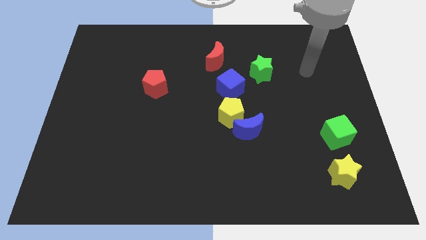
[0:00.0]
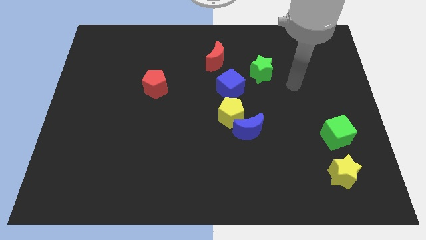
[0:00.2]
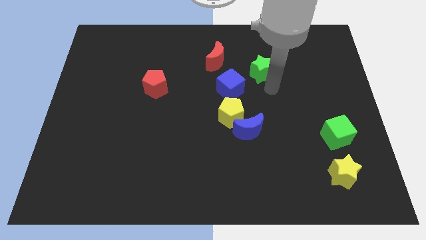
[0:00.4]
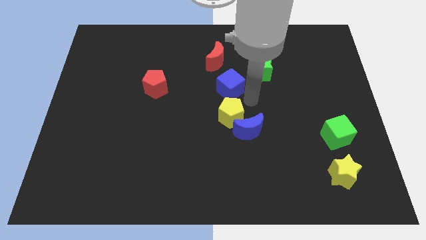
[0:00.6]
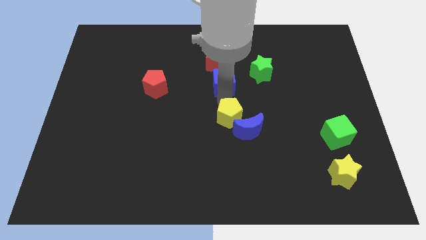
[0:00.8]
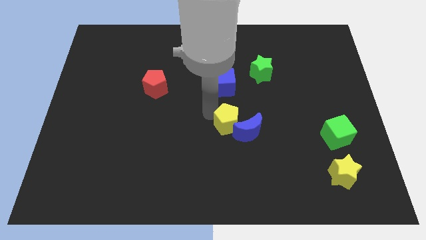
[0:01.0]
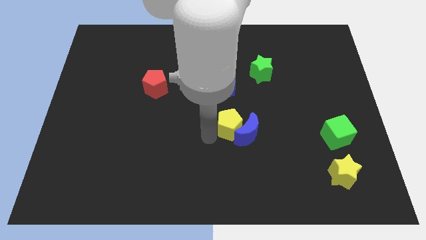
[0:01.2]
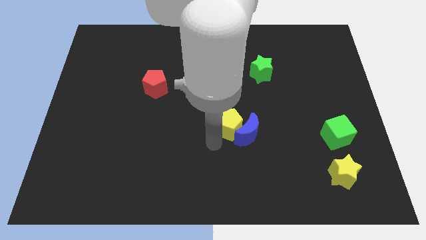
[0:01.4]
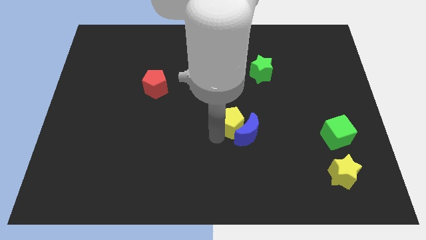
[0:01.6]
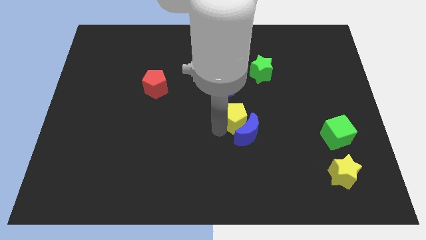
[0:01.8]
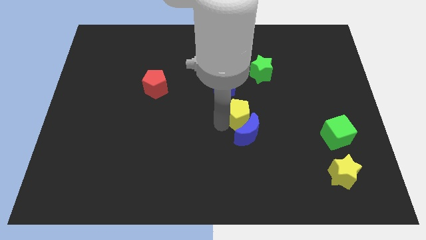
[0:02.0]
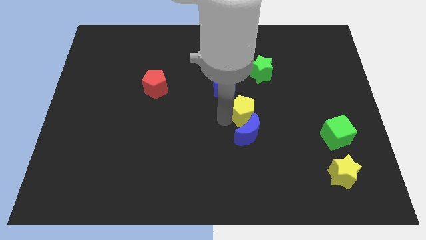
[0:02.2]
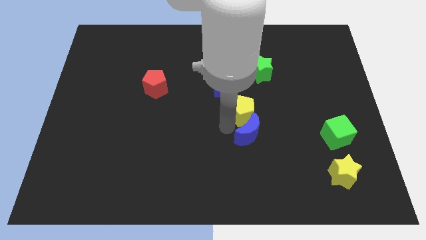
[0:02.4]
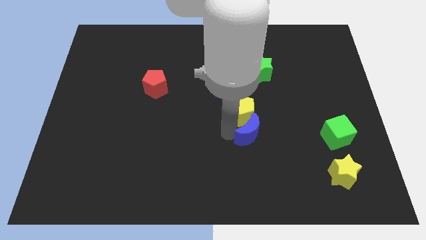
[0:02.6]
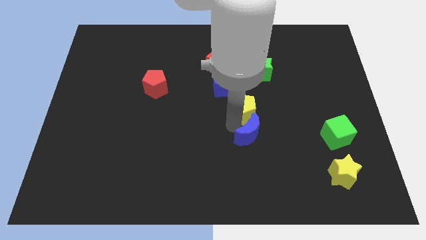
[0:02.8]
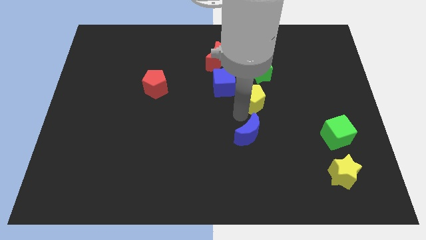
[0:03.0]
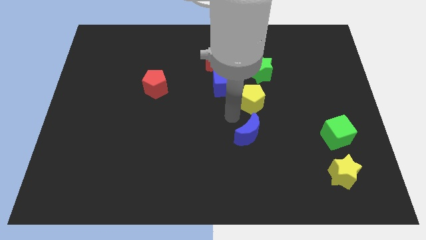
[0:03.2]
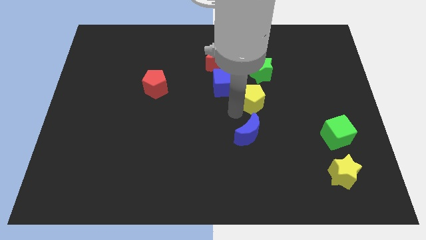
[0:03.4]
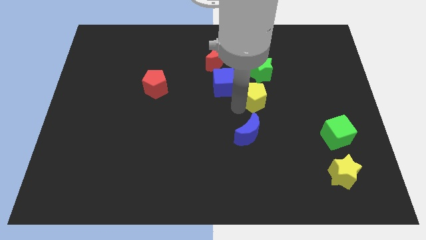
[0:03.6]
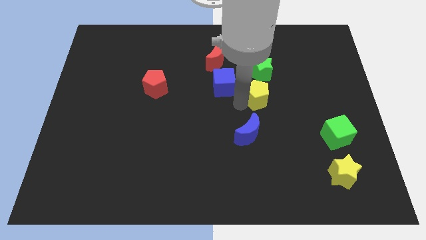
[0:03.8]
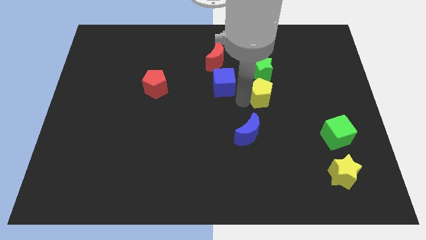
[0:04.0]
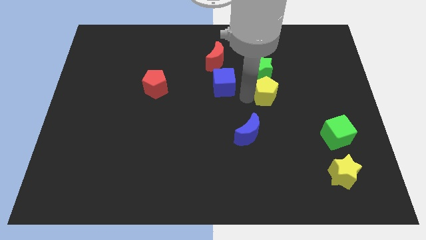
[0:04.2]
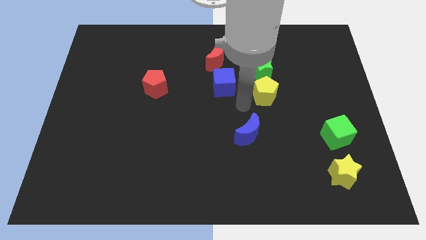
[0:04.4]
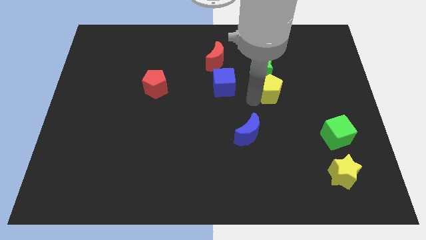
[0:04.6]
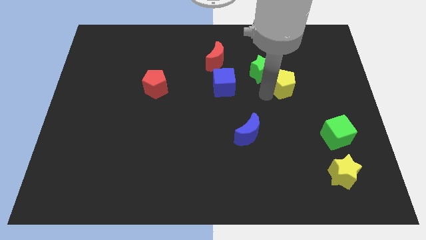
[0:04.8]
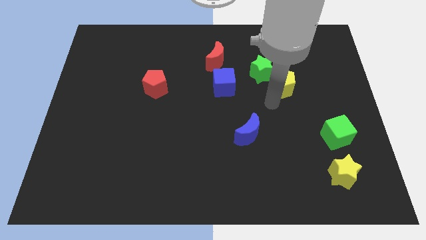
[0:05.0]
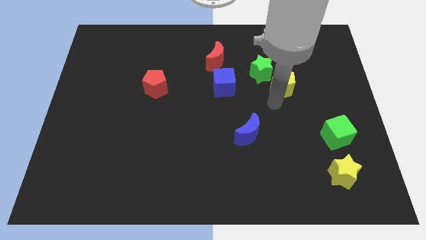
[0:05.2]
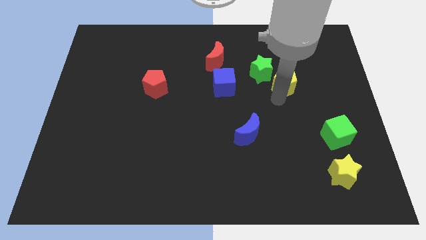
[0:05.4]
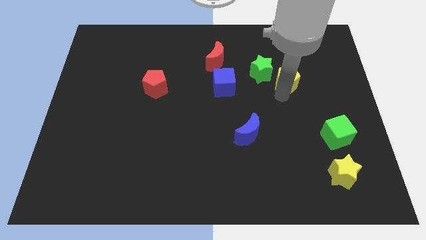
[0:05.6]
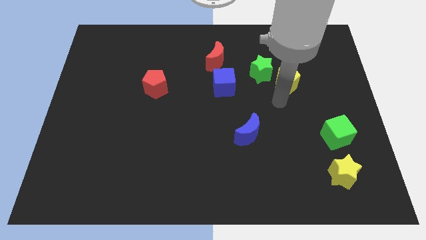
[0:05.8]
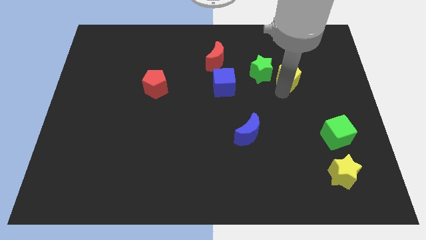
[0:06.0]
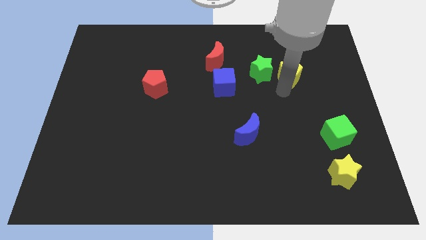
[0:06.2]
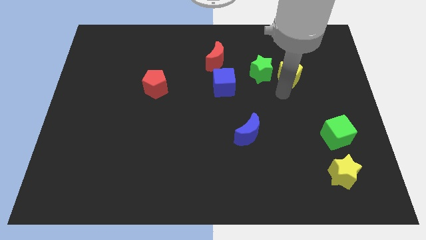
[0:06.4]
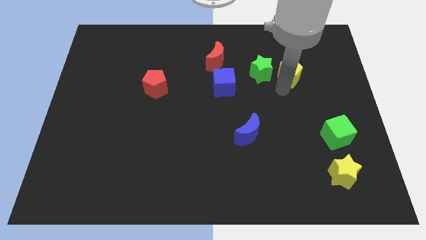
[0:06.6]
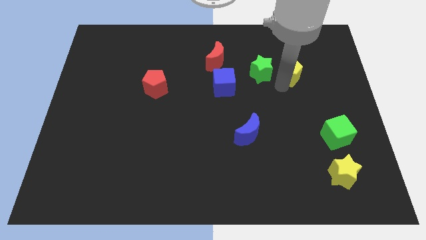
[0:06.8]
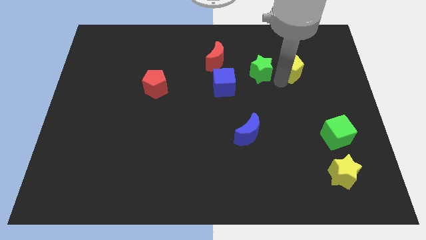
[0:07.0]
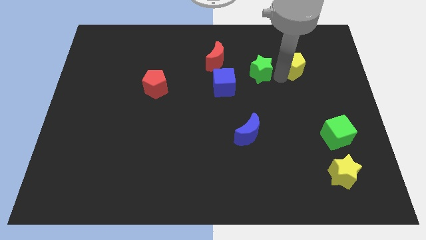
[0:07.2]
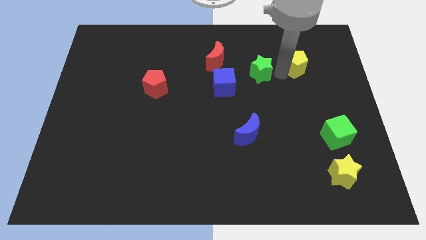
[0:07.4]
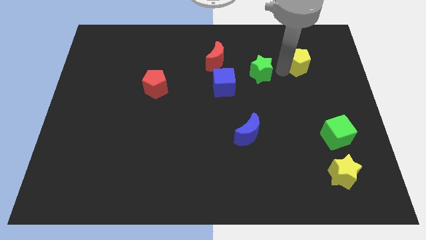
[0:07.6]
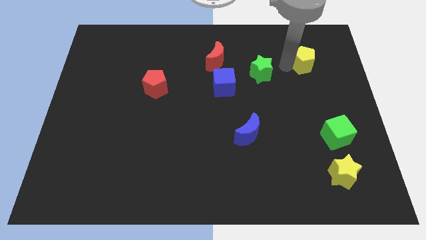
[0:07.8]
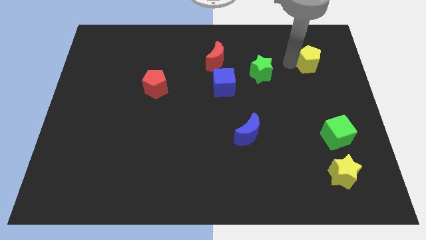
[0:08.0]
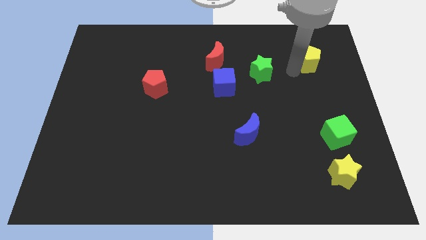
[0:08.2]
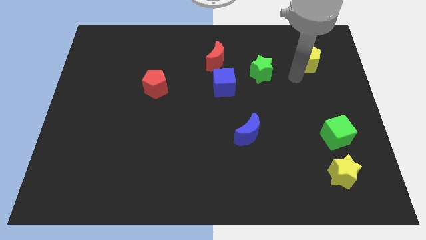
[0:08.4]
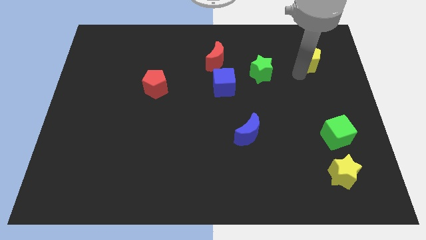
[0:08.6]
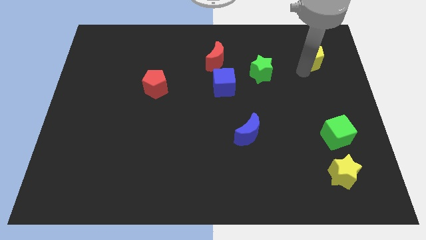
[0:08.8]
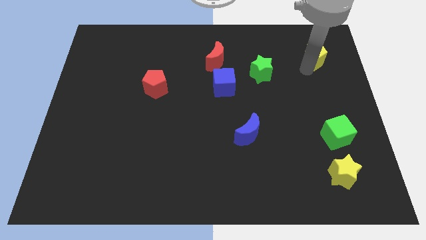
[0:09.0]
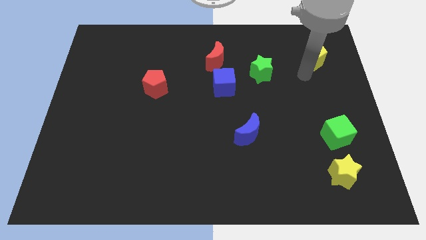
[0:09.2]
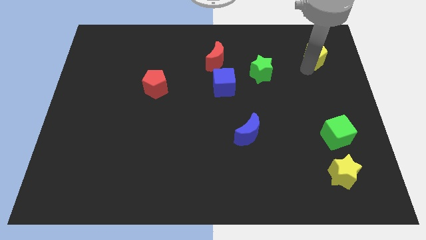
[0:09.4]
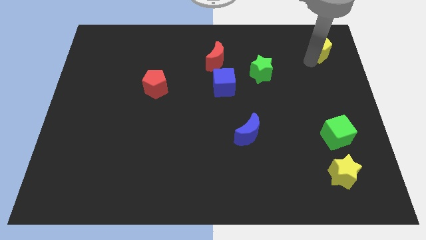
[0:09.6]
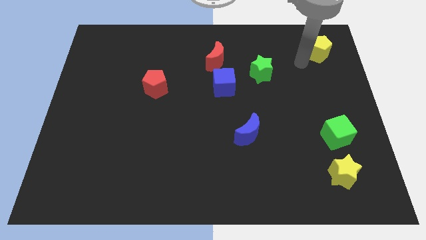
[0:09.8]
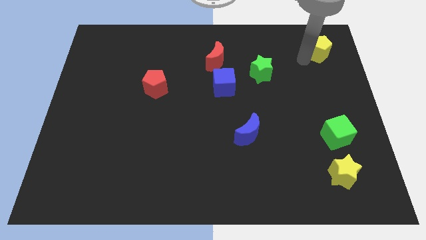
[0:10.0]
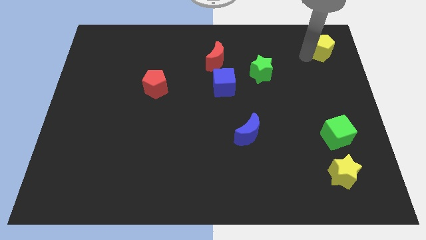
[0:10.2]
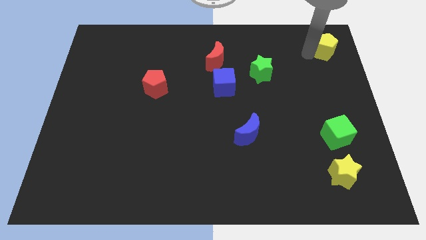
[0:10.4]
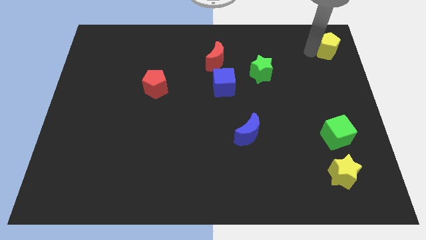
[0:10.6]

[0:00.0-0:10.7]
slide the yellow pentagon to the upper right corner

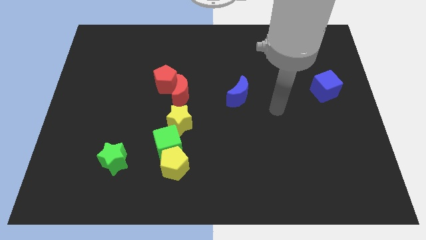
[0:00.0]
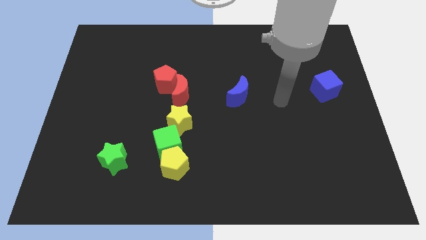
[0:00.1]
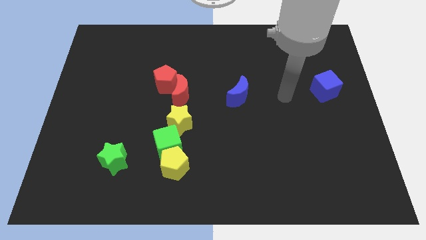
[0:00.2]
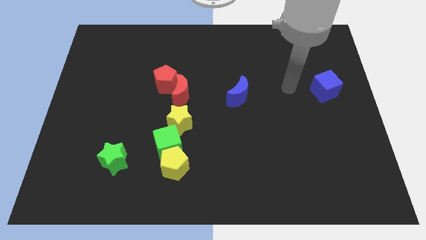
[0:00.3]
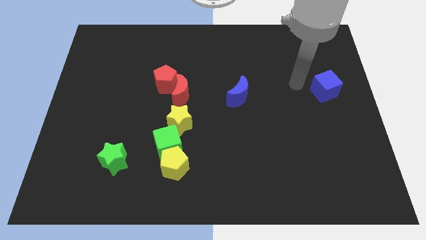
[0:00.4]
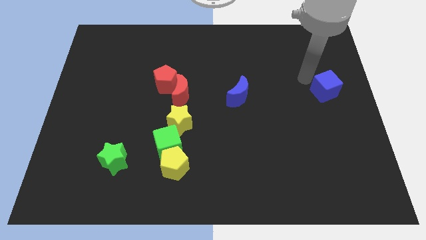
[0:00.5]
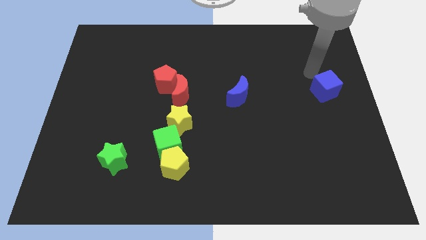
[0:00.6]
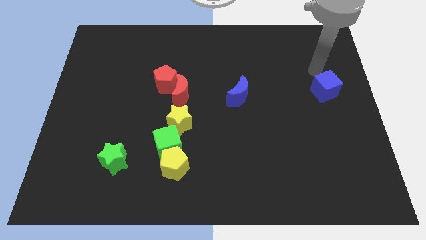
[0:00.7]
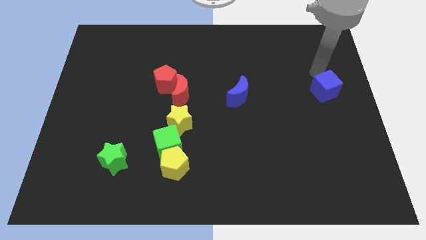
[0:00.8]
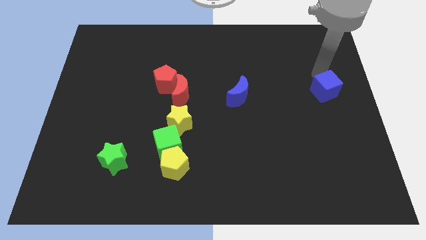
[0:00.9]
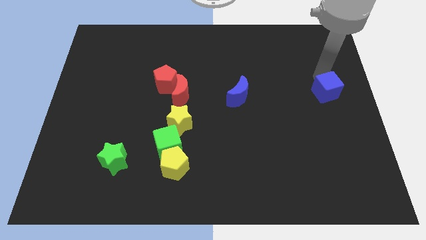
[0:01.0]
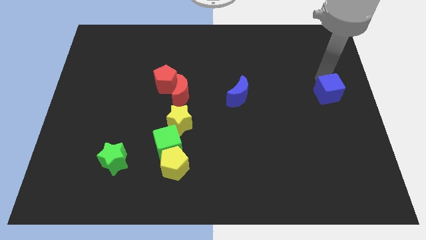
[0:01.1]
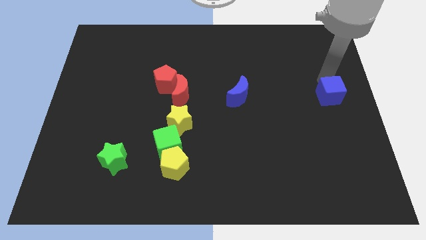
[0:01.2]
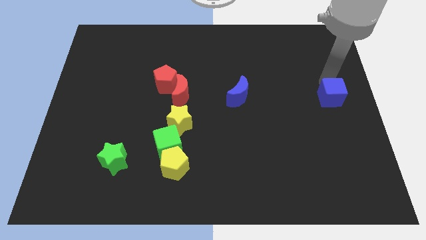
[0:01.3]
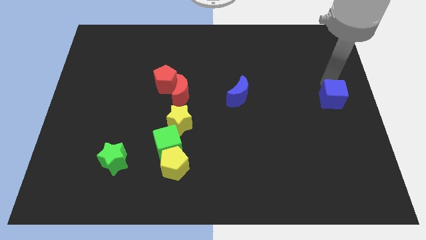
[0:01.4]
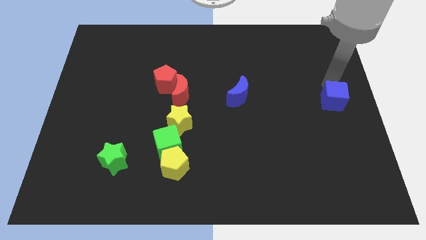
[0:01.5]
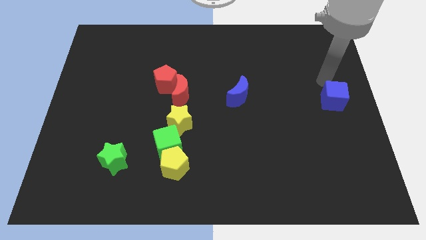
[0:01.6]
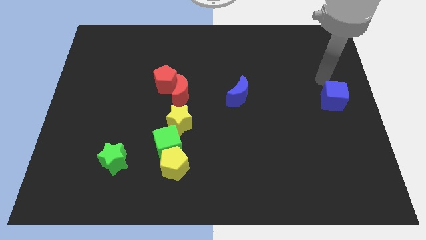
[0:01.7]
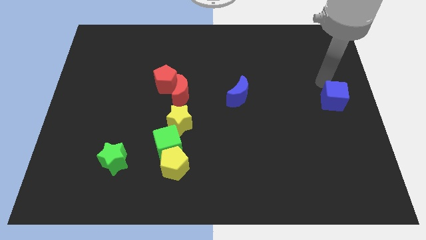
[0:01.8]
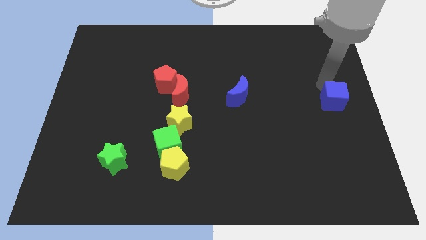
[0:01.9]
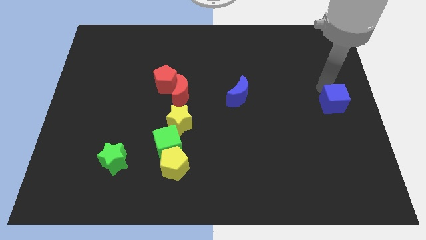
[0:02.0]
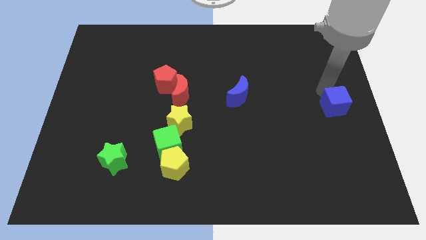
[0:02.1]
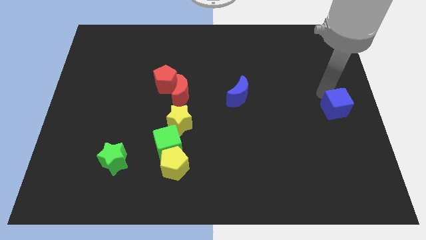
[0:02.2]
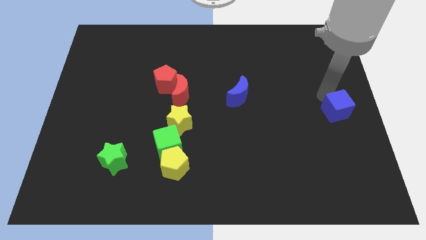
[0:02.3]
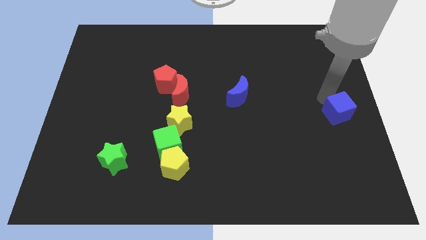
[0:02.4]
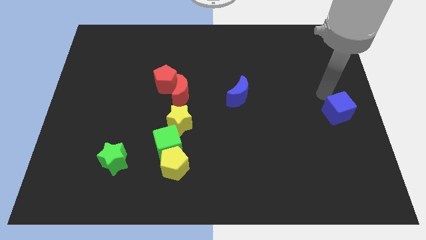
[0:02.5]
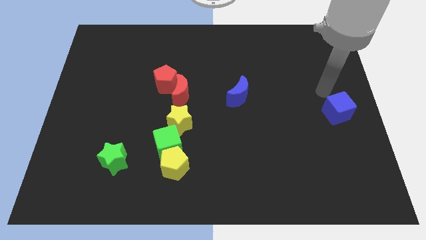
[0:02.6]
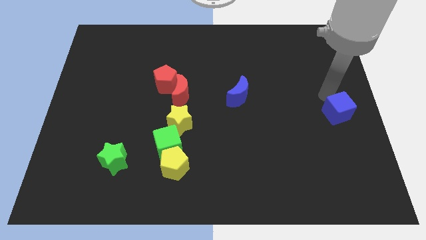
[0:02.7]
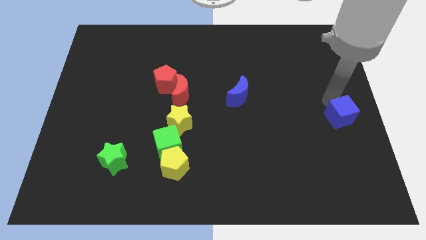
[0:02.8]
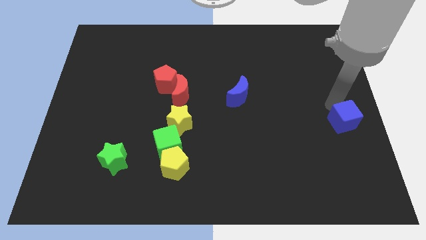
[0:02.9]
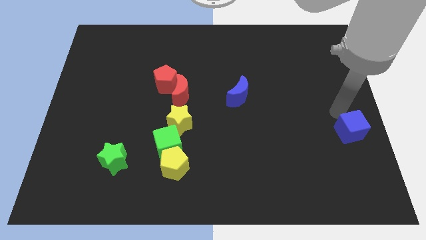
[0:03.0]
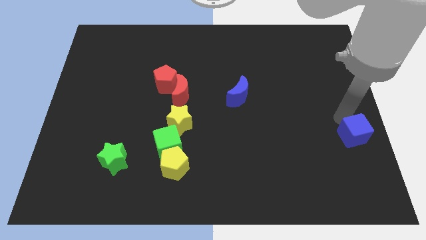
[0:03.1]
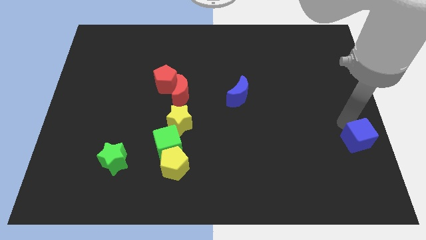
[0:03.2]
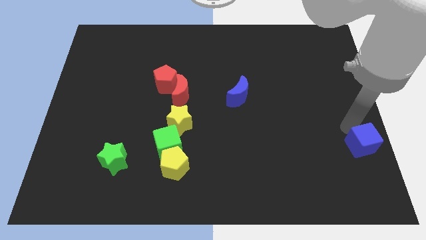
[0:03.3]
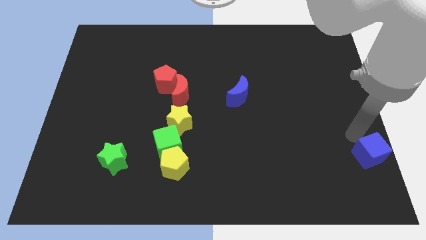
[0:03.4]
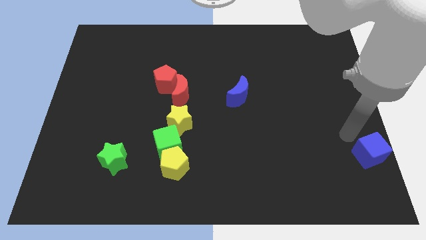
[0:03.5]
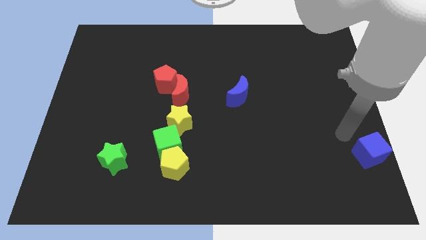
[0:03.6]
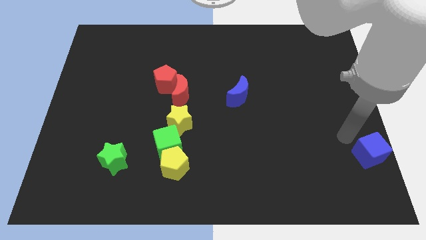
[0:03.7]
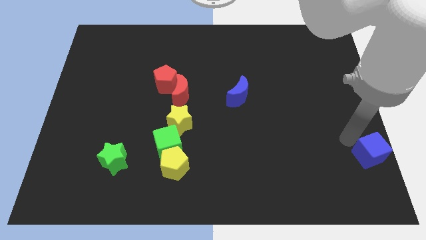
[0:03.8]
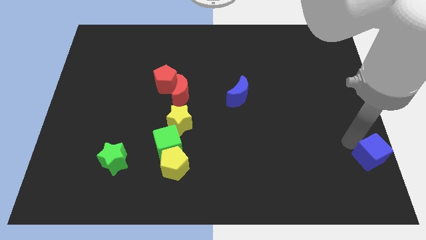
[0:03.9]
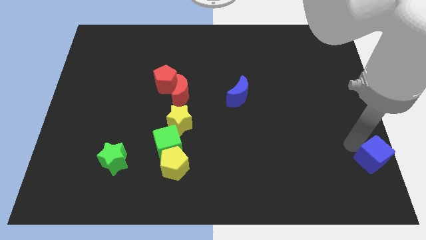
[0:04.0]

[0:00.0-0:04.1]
push the blue cube to the bottom right corner
